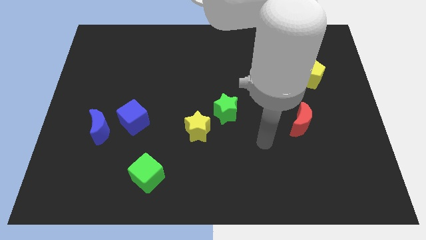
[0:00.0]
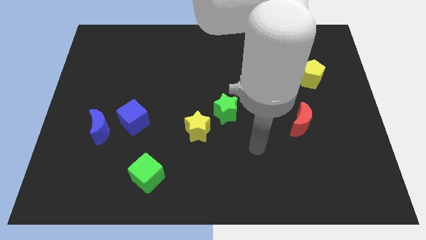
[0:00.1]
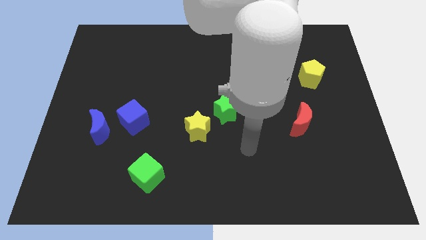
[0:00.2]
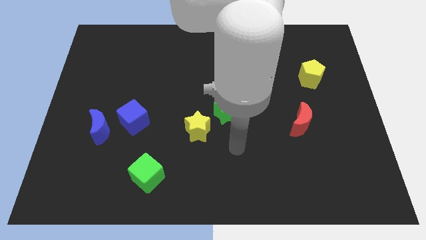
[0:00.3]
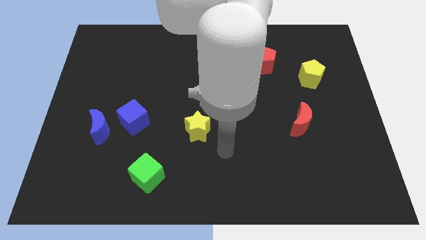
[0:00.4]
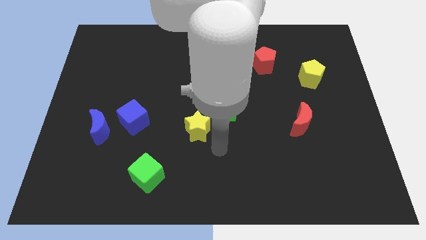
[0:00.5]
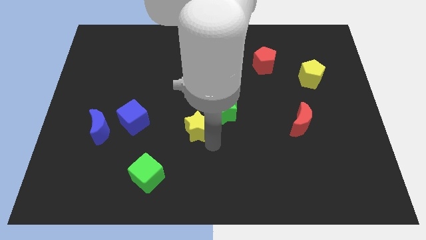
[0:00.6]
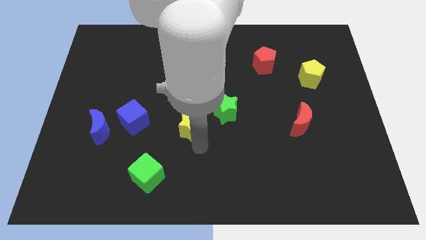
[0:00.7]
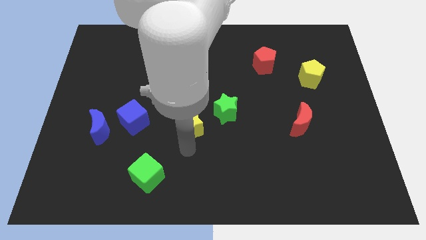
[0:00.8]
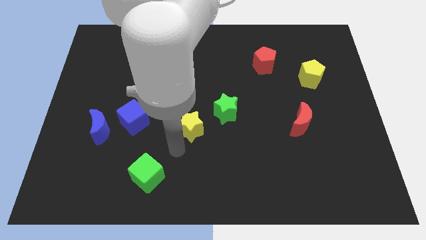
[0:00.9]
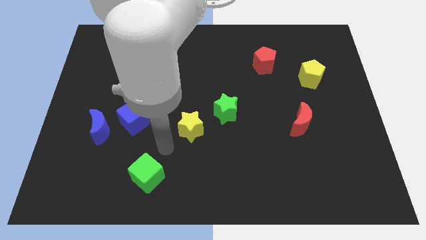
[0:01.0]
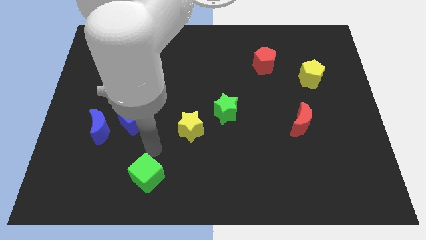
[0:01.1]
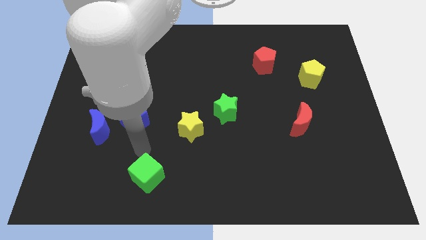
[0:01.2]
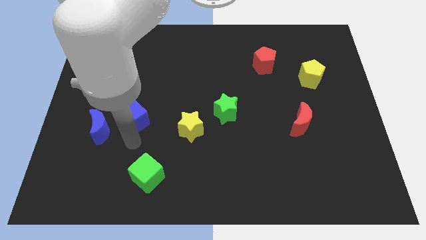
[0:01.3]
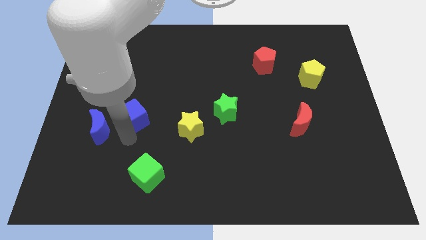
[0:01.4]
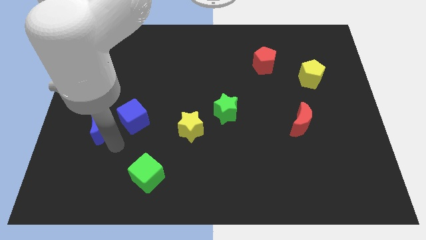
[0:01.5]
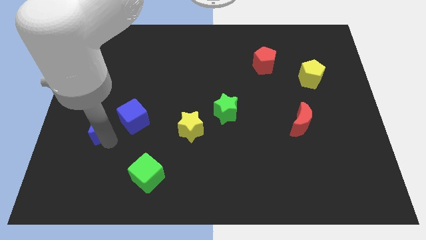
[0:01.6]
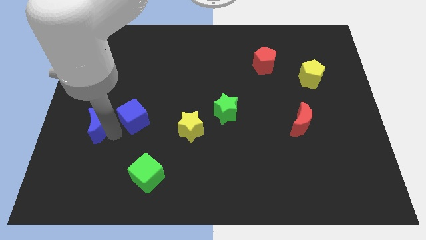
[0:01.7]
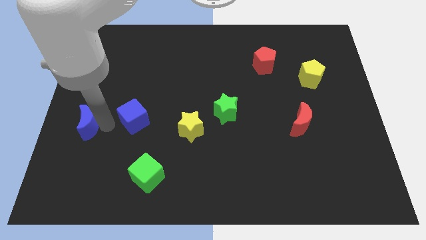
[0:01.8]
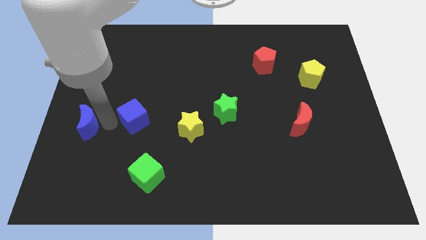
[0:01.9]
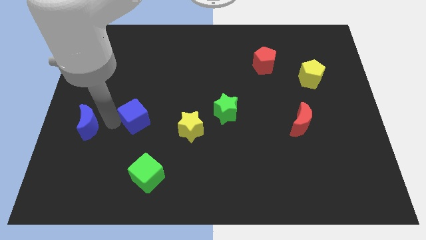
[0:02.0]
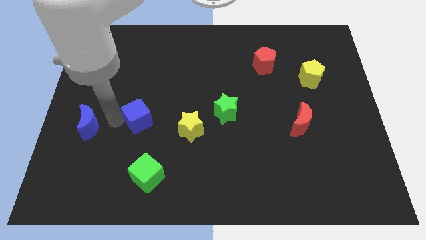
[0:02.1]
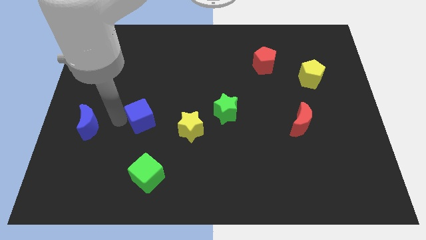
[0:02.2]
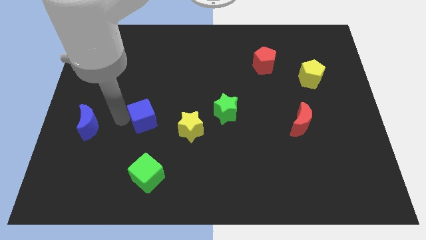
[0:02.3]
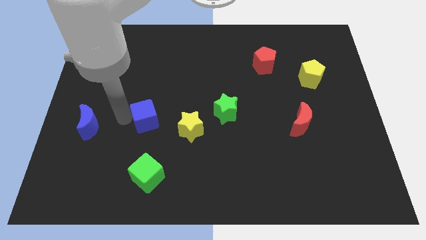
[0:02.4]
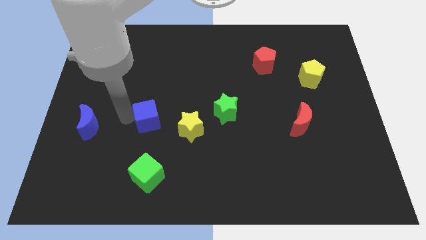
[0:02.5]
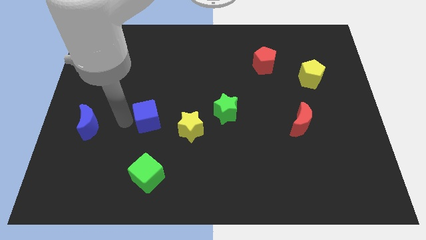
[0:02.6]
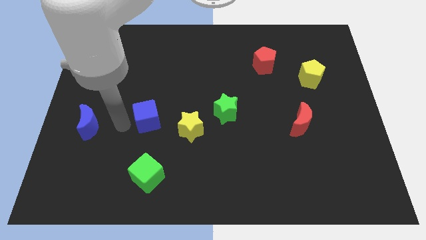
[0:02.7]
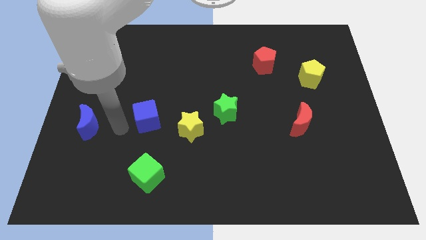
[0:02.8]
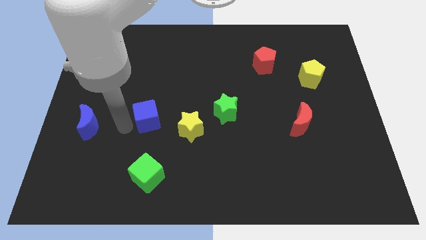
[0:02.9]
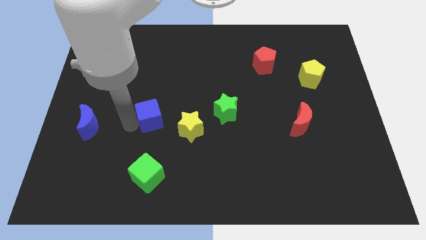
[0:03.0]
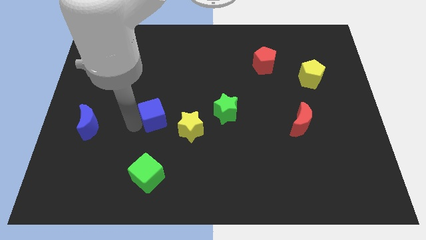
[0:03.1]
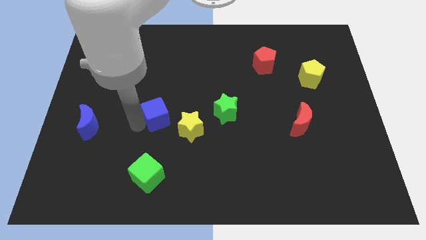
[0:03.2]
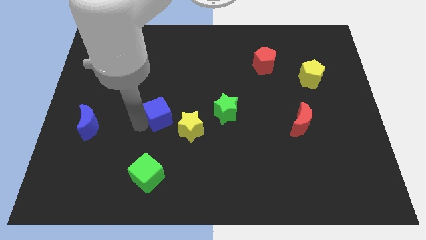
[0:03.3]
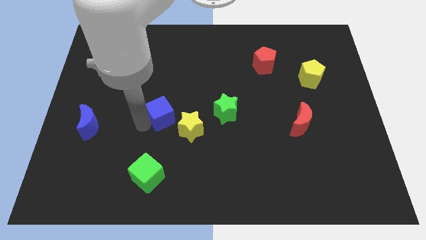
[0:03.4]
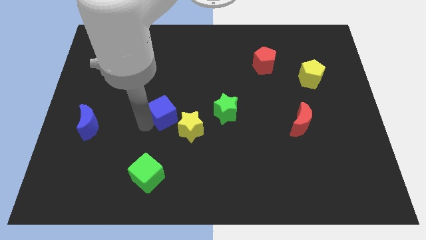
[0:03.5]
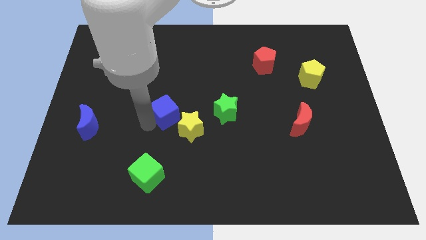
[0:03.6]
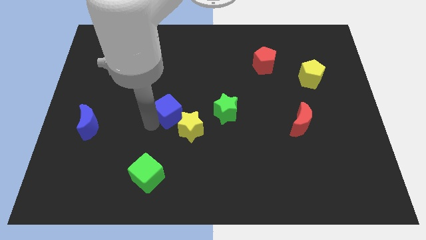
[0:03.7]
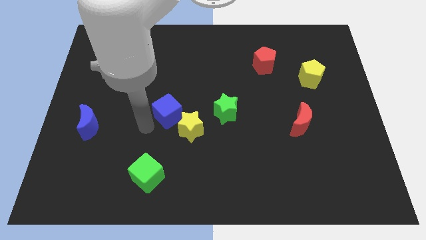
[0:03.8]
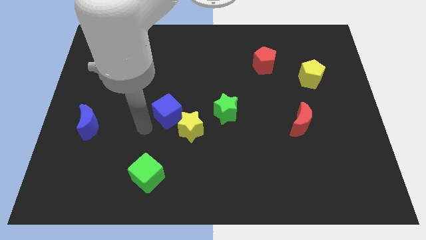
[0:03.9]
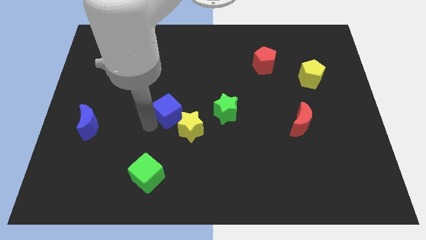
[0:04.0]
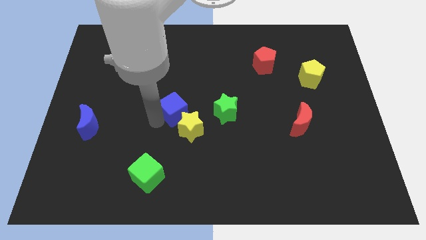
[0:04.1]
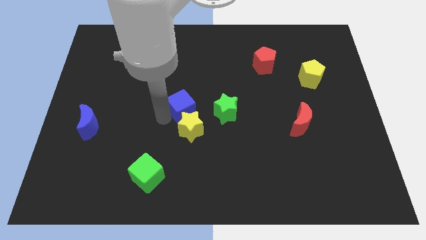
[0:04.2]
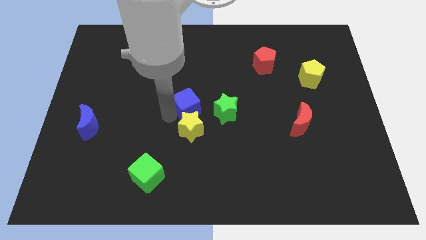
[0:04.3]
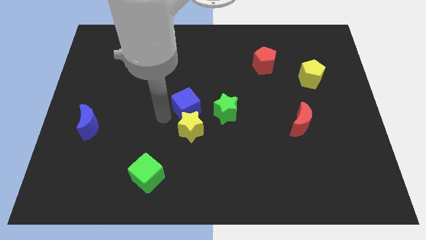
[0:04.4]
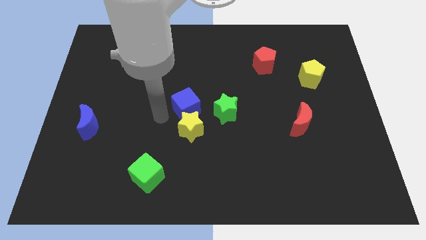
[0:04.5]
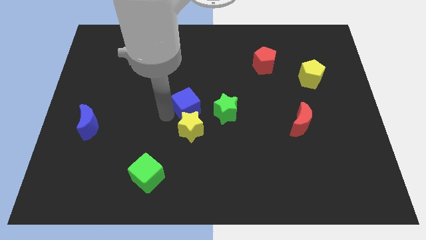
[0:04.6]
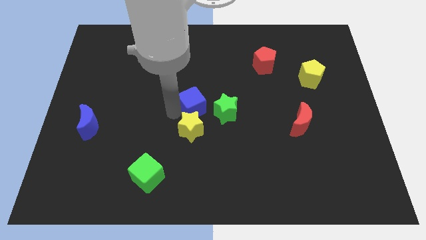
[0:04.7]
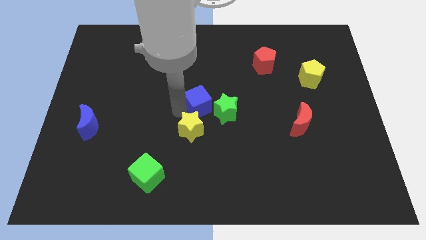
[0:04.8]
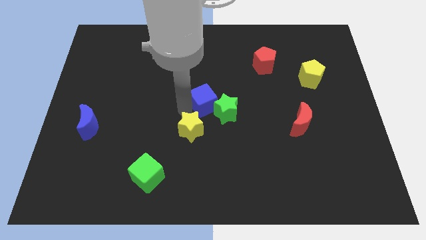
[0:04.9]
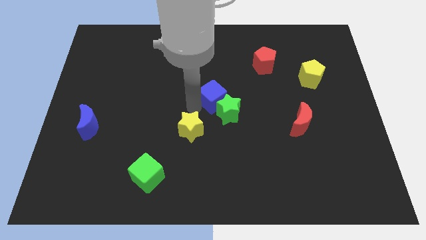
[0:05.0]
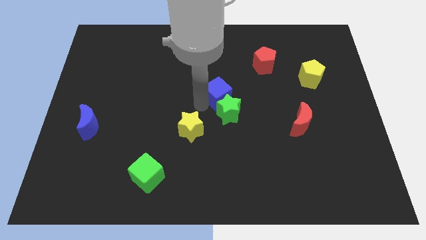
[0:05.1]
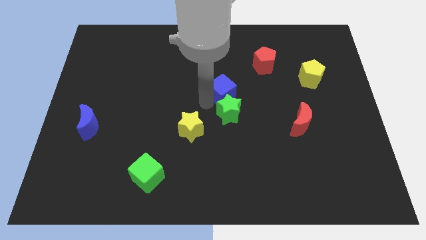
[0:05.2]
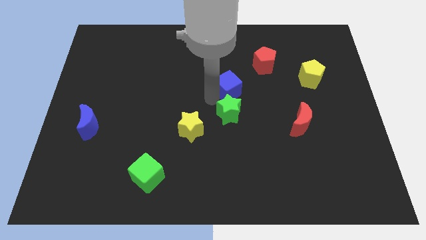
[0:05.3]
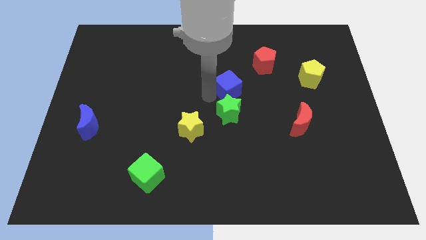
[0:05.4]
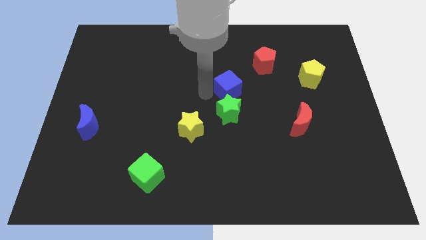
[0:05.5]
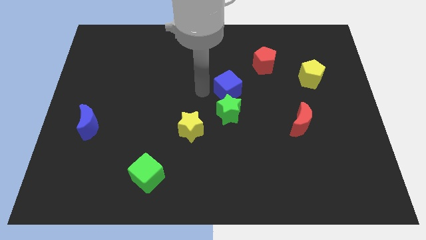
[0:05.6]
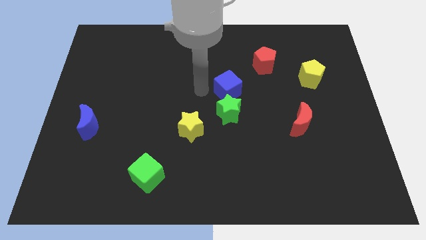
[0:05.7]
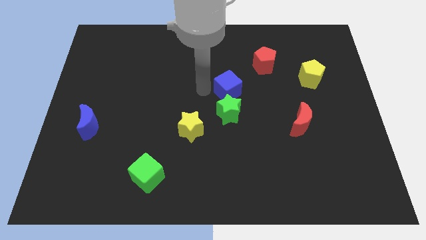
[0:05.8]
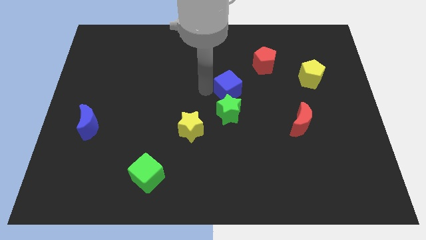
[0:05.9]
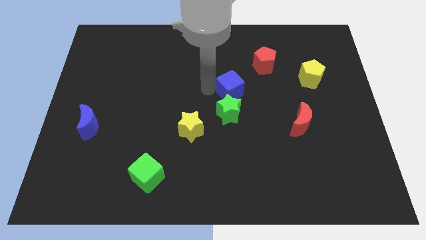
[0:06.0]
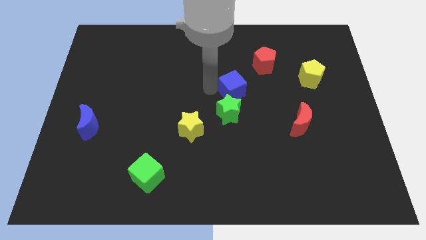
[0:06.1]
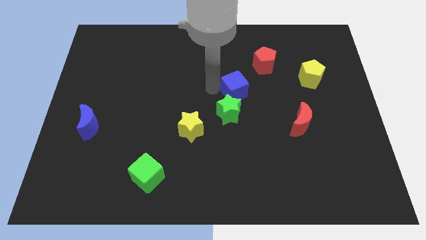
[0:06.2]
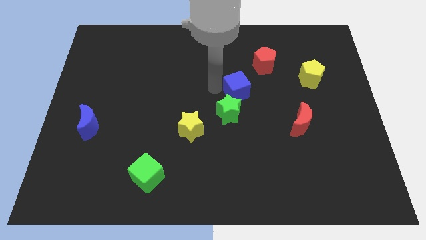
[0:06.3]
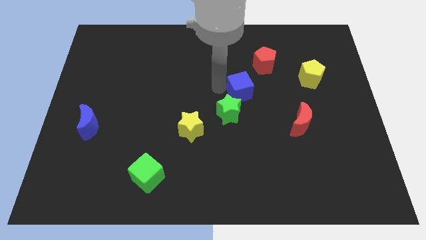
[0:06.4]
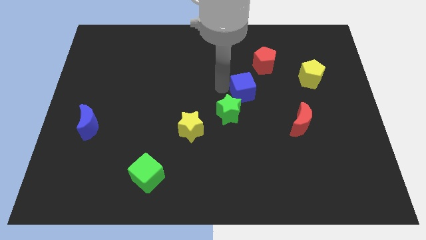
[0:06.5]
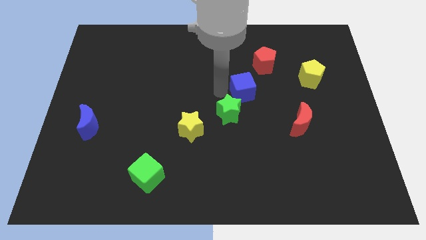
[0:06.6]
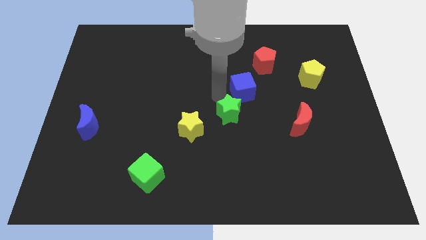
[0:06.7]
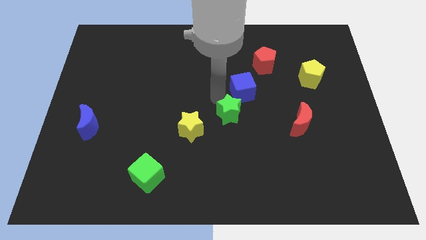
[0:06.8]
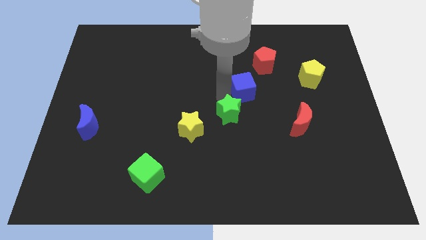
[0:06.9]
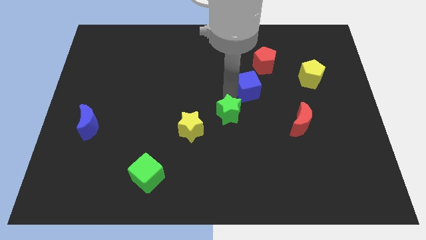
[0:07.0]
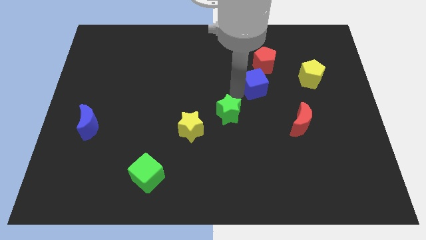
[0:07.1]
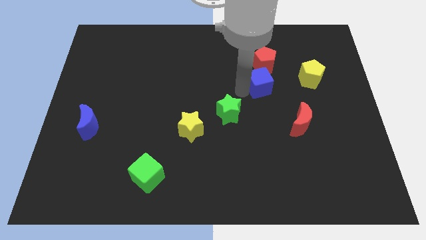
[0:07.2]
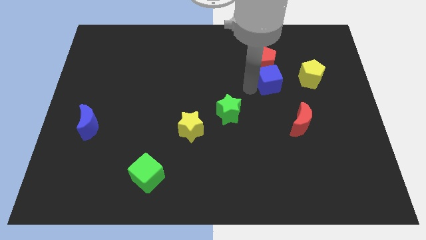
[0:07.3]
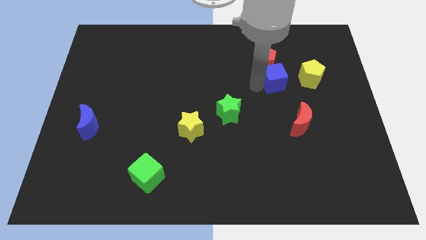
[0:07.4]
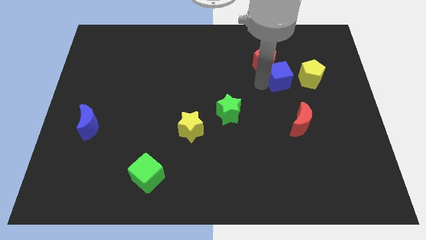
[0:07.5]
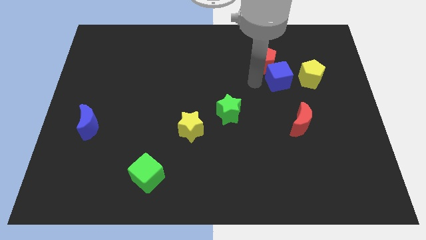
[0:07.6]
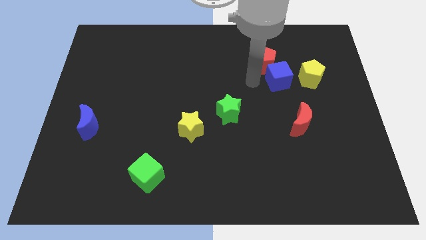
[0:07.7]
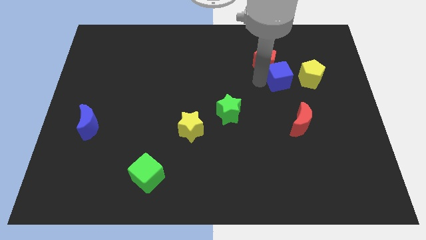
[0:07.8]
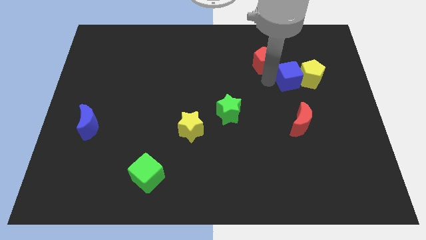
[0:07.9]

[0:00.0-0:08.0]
move the blue cube to the yellow pentagon
